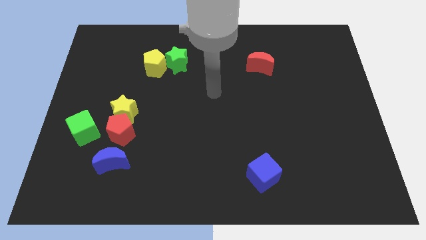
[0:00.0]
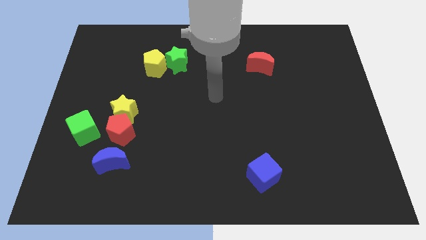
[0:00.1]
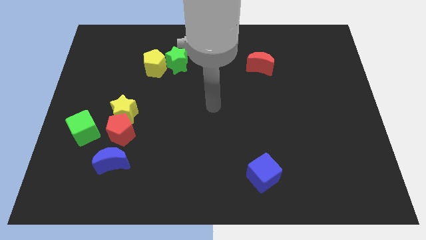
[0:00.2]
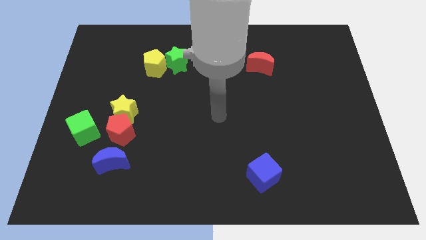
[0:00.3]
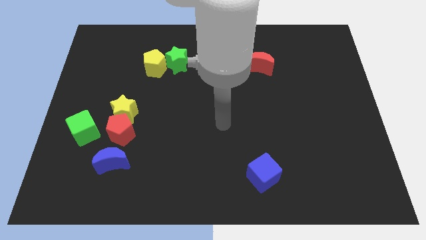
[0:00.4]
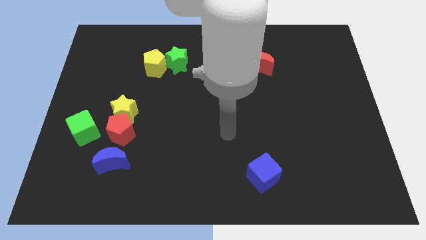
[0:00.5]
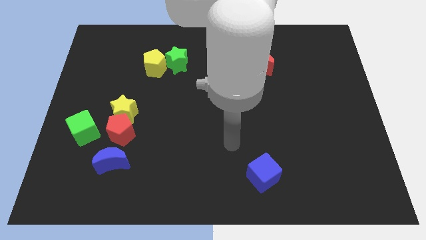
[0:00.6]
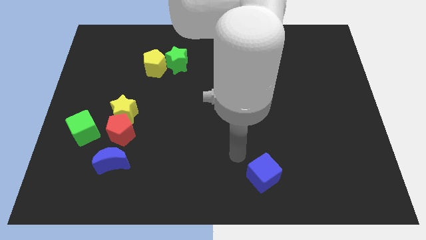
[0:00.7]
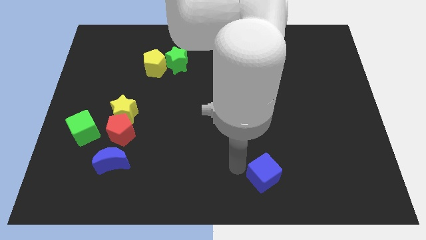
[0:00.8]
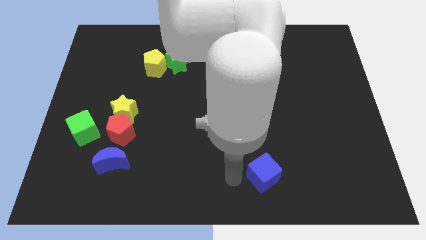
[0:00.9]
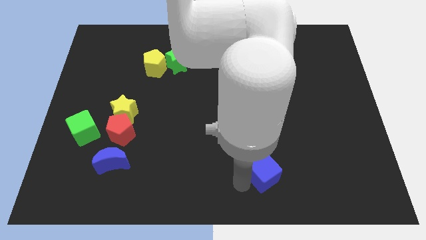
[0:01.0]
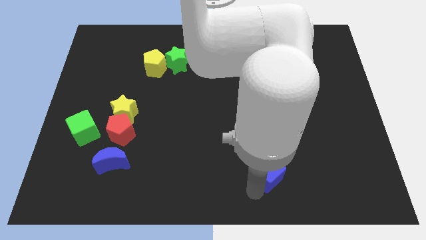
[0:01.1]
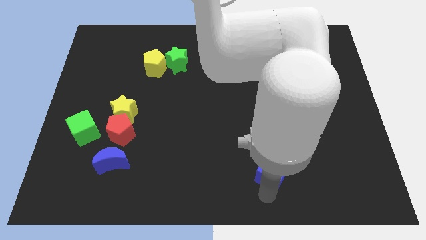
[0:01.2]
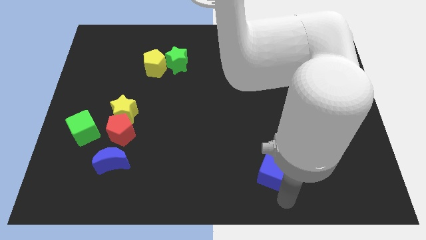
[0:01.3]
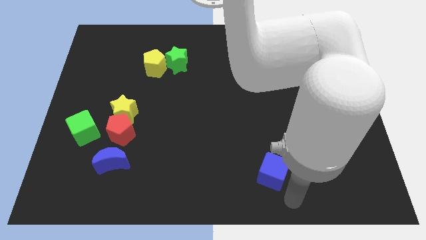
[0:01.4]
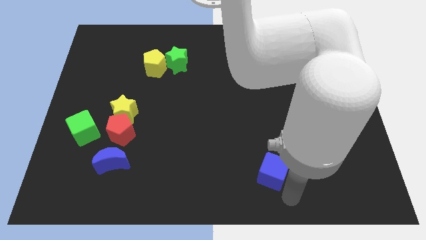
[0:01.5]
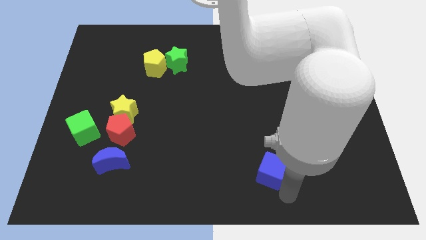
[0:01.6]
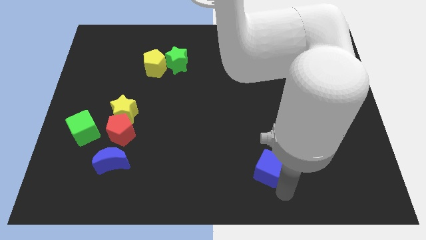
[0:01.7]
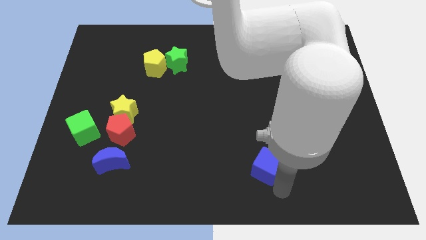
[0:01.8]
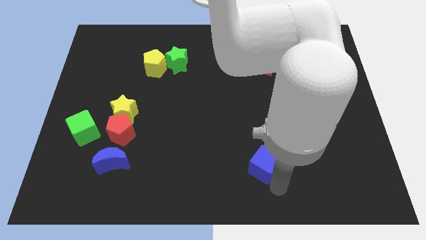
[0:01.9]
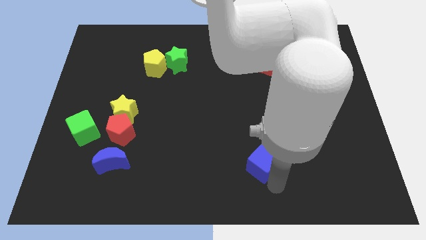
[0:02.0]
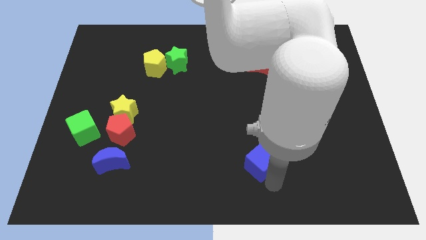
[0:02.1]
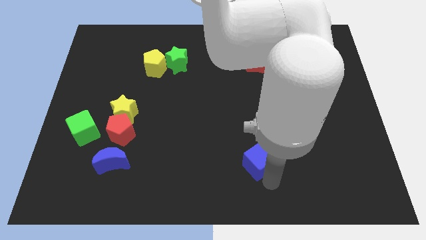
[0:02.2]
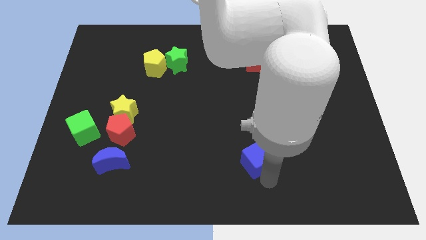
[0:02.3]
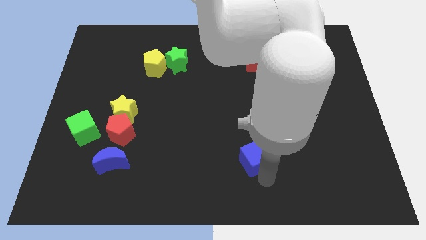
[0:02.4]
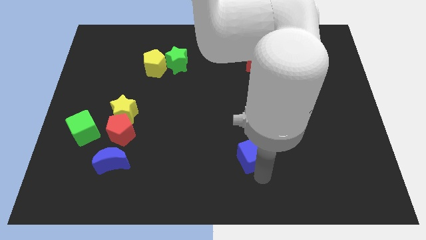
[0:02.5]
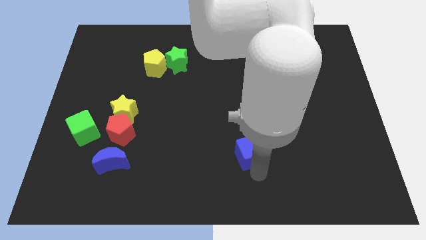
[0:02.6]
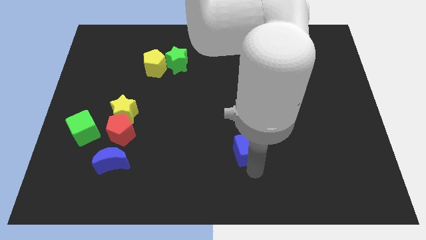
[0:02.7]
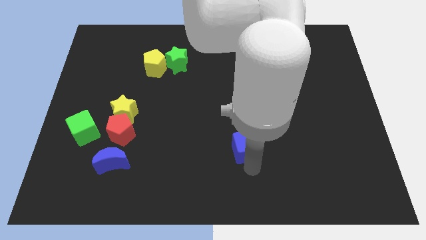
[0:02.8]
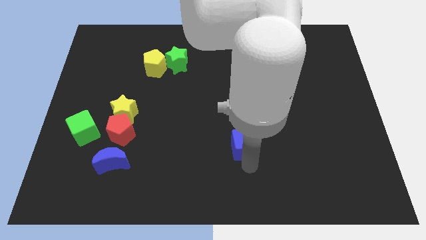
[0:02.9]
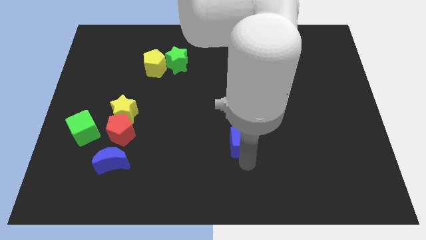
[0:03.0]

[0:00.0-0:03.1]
move the blue cube somewhat upwards

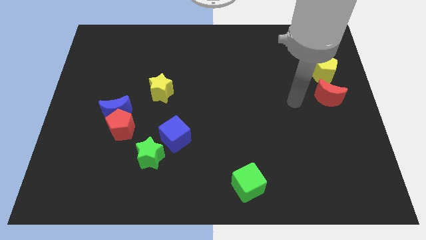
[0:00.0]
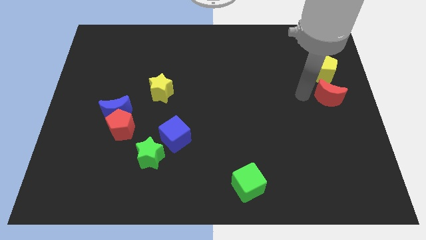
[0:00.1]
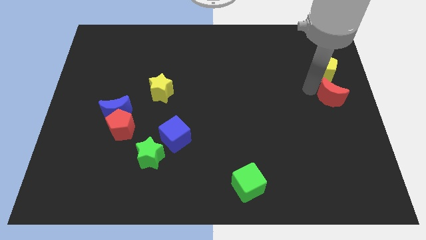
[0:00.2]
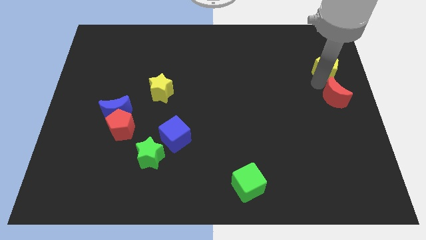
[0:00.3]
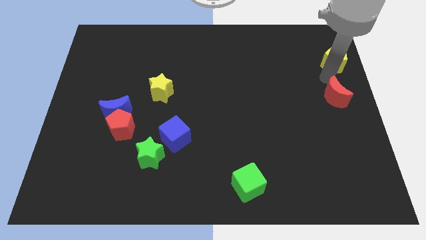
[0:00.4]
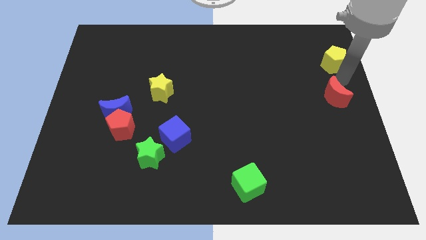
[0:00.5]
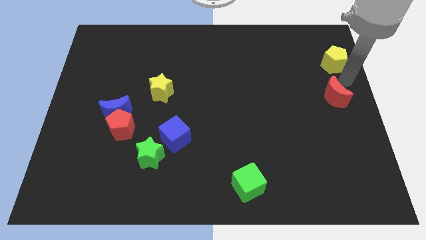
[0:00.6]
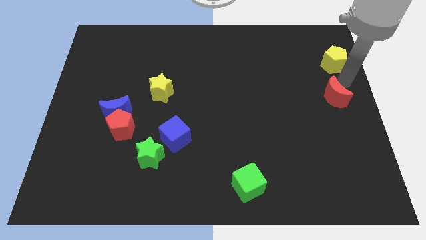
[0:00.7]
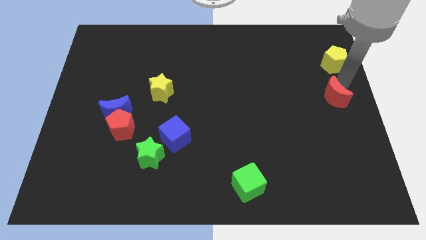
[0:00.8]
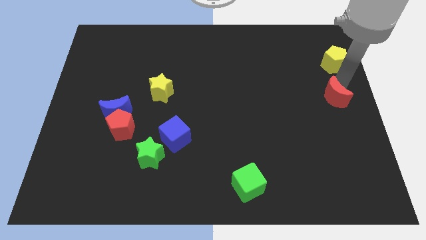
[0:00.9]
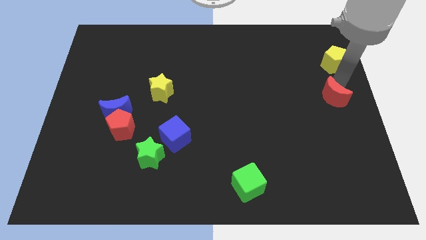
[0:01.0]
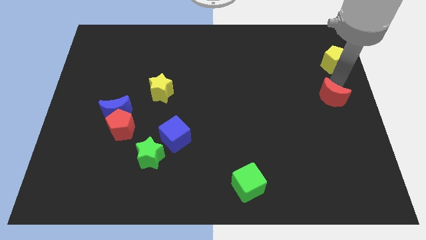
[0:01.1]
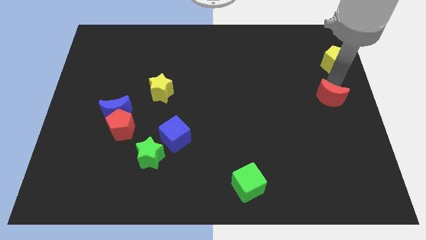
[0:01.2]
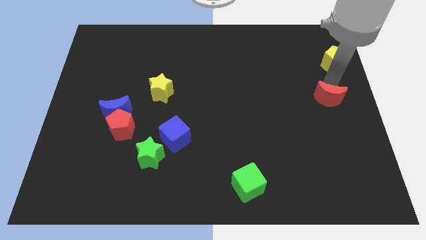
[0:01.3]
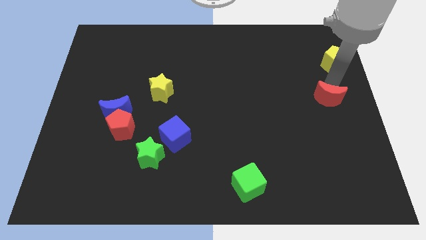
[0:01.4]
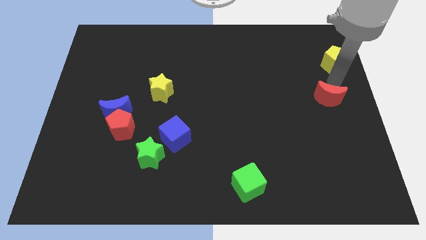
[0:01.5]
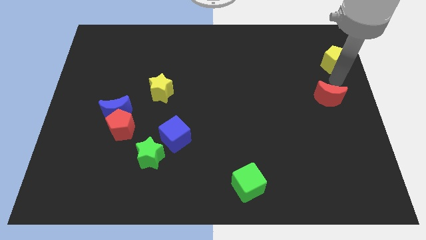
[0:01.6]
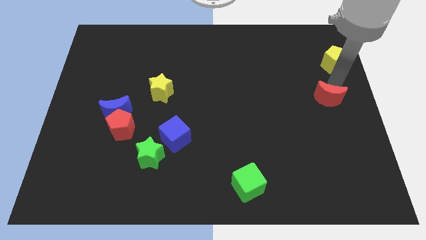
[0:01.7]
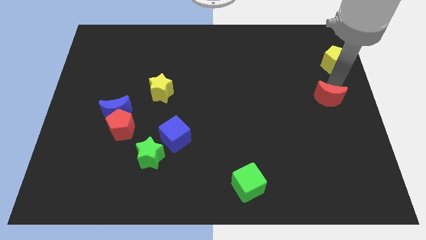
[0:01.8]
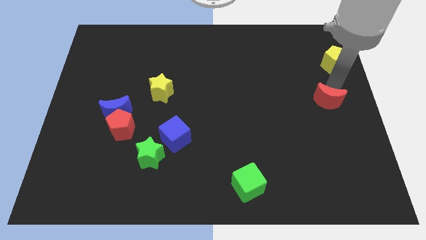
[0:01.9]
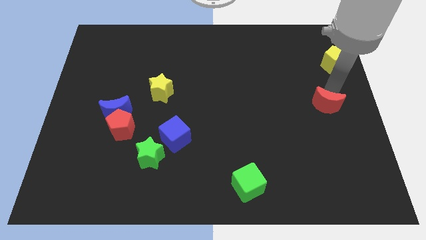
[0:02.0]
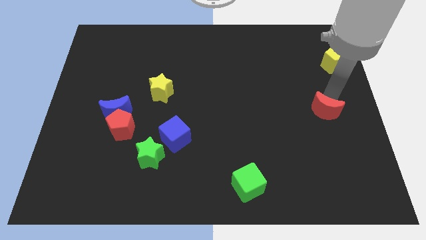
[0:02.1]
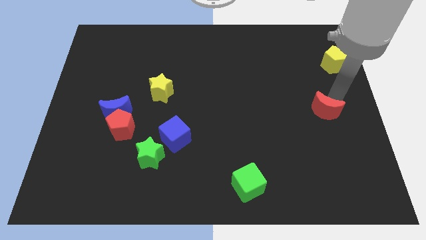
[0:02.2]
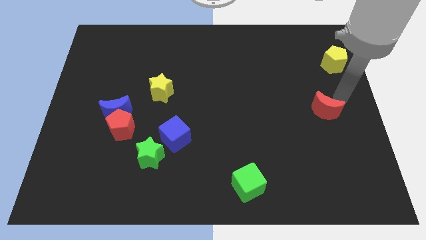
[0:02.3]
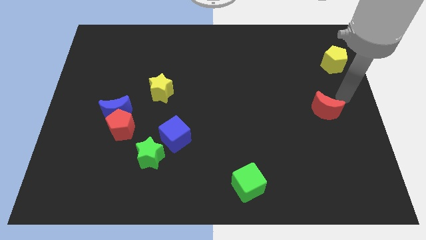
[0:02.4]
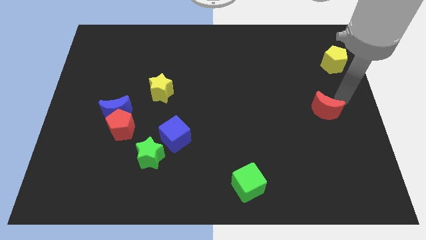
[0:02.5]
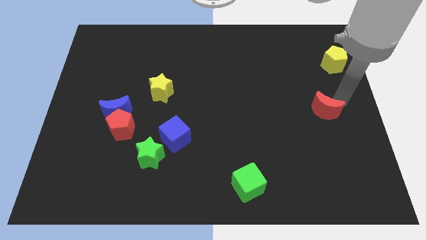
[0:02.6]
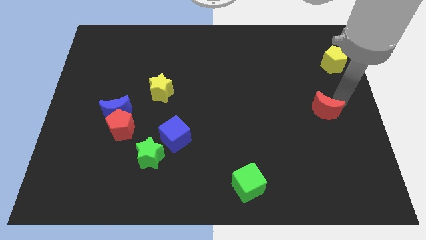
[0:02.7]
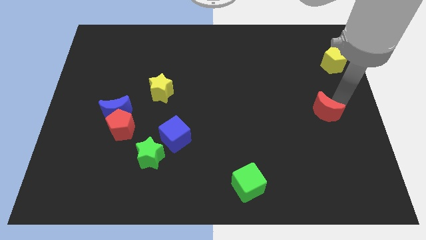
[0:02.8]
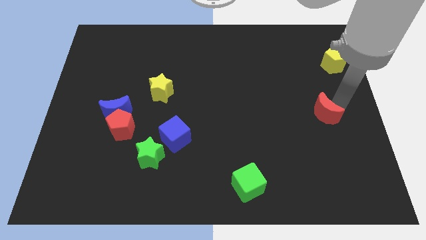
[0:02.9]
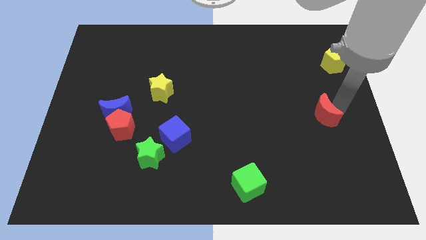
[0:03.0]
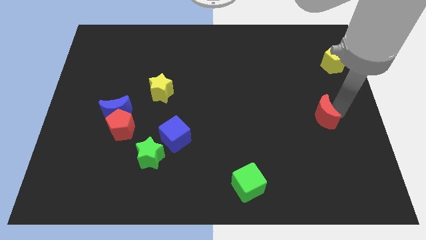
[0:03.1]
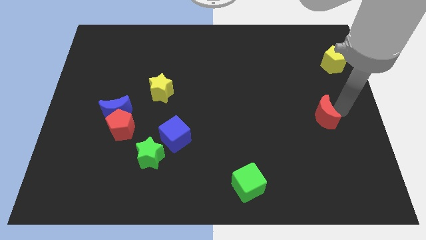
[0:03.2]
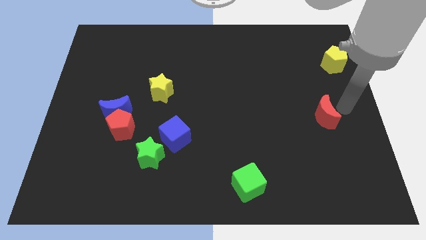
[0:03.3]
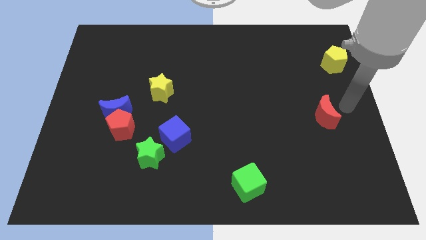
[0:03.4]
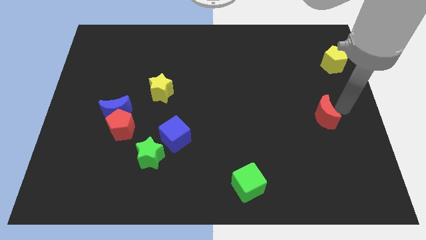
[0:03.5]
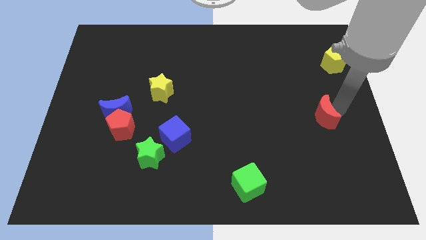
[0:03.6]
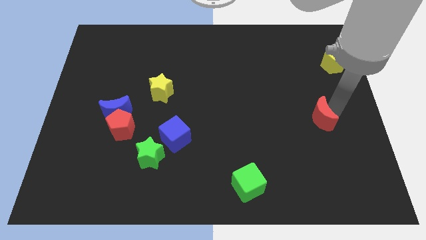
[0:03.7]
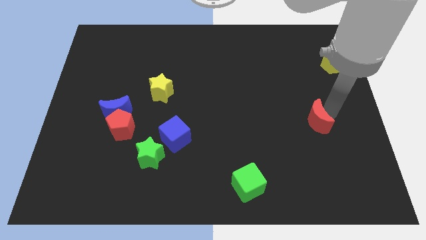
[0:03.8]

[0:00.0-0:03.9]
move the red moon a little bit downwards and then to the left

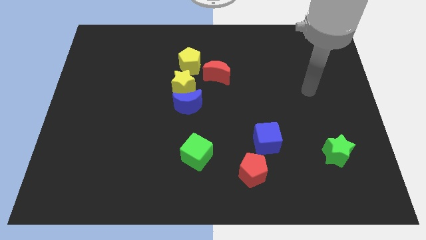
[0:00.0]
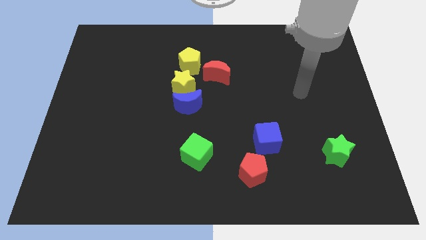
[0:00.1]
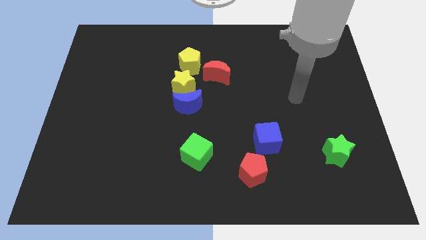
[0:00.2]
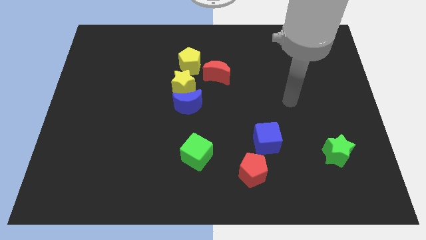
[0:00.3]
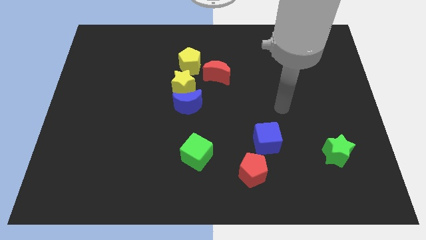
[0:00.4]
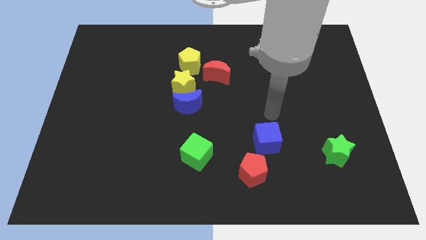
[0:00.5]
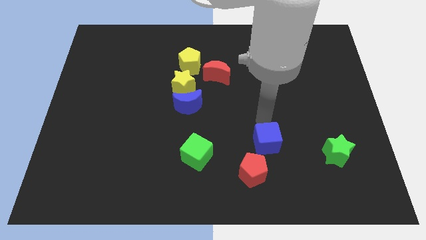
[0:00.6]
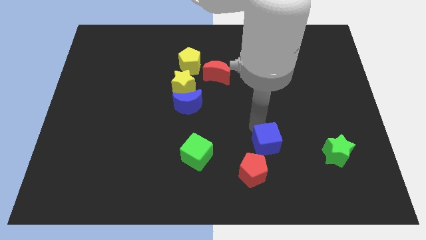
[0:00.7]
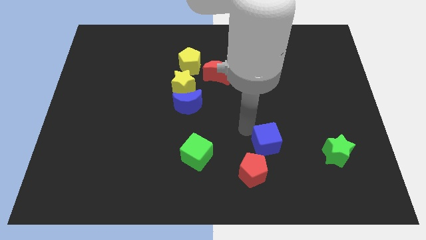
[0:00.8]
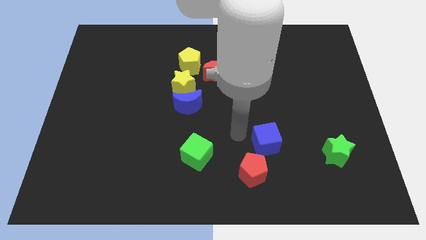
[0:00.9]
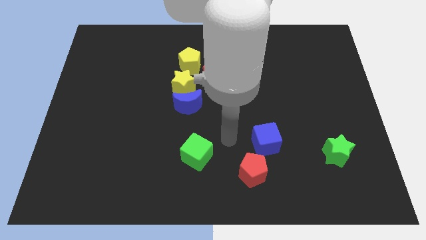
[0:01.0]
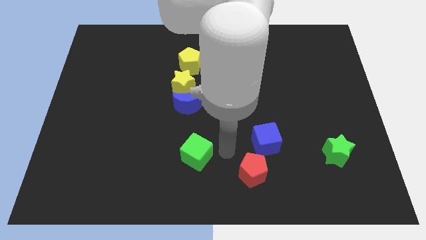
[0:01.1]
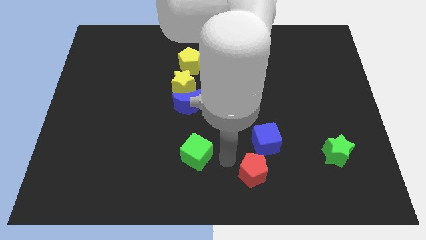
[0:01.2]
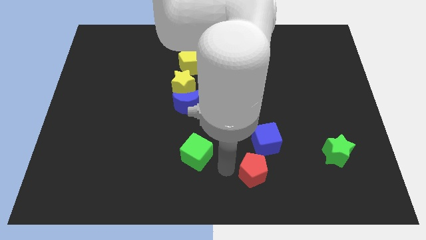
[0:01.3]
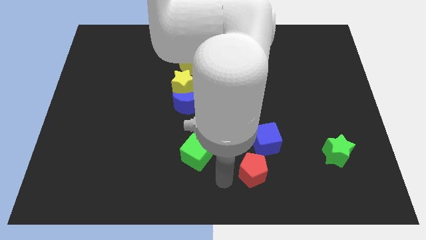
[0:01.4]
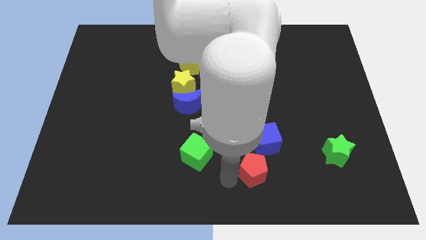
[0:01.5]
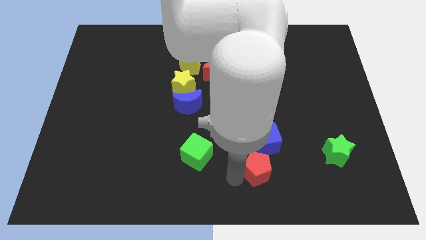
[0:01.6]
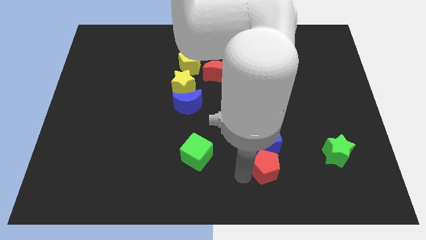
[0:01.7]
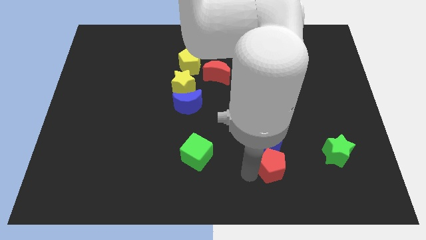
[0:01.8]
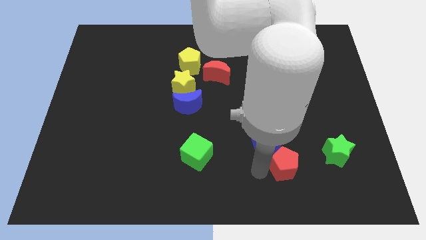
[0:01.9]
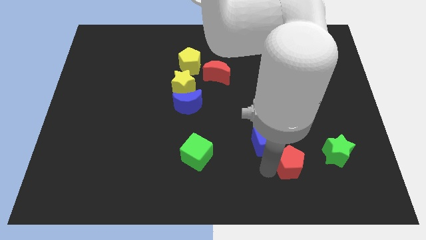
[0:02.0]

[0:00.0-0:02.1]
slightly push the red pentagon right
